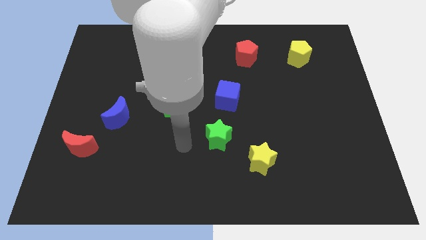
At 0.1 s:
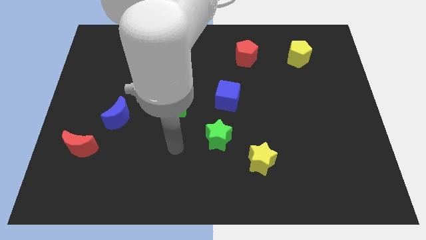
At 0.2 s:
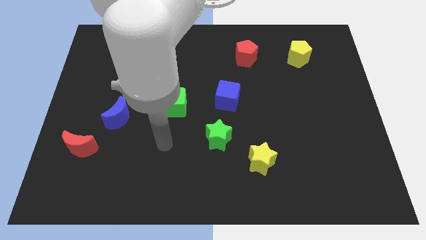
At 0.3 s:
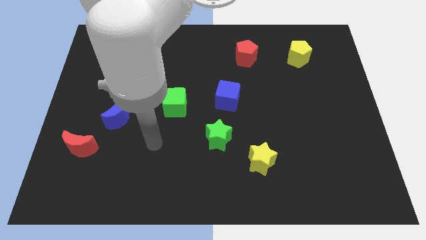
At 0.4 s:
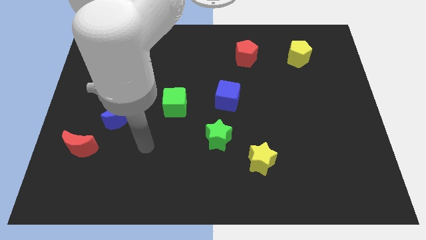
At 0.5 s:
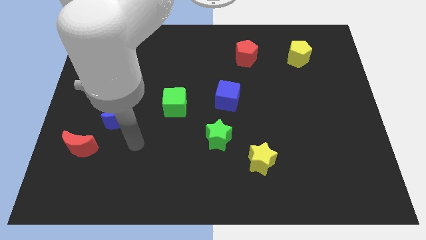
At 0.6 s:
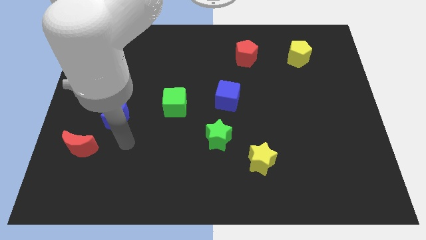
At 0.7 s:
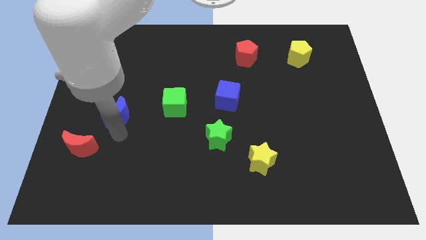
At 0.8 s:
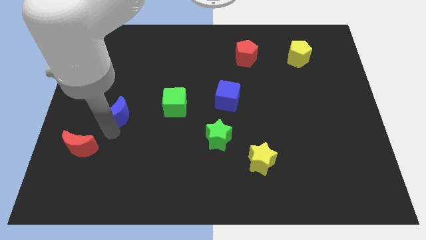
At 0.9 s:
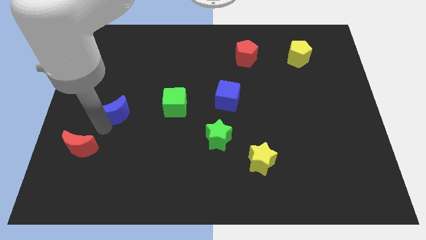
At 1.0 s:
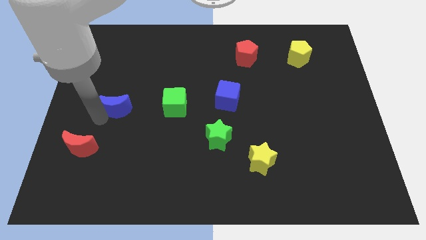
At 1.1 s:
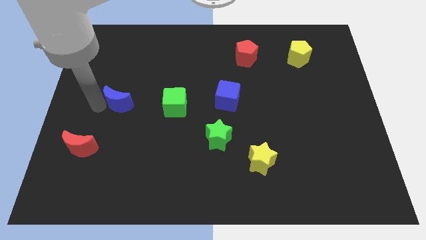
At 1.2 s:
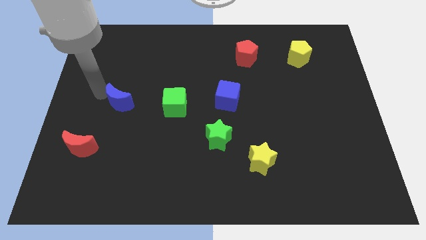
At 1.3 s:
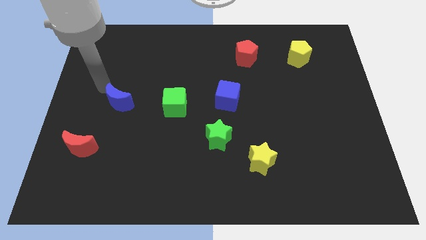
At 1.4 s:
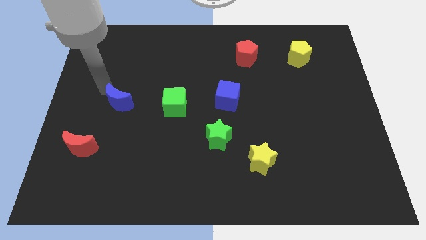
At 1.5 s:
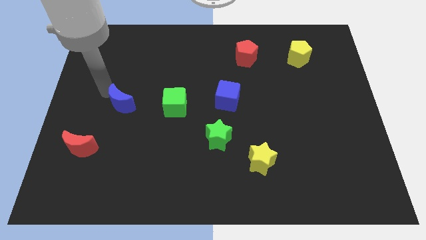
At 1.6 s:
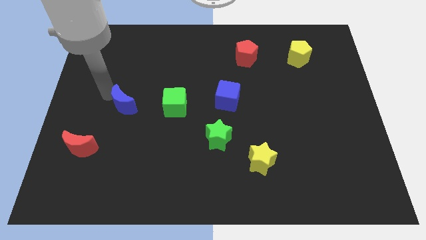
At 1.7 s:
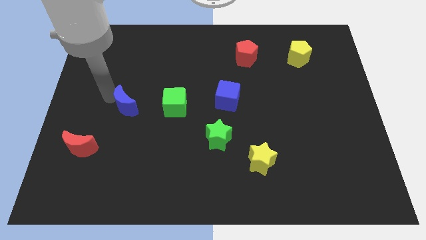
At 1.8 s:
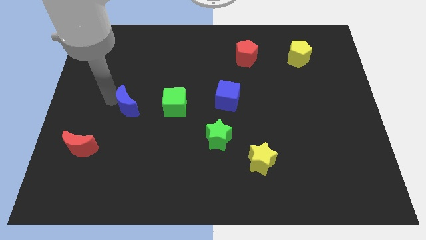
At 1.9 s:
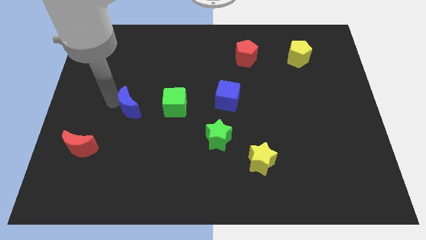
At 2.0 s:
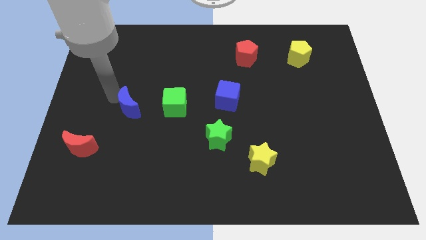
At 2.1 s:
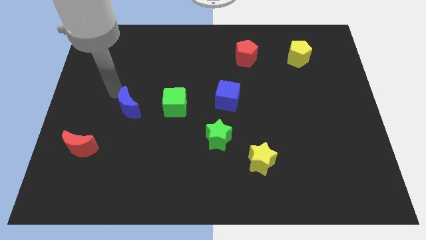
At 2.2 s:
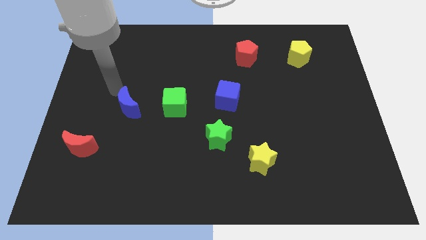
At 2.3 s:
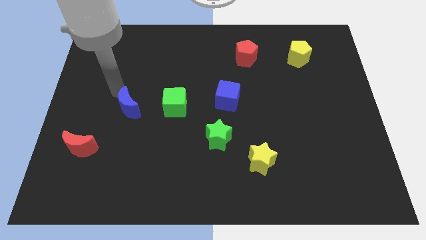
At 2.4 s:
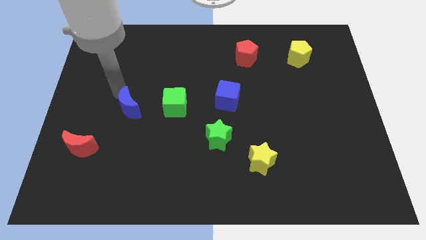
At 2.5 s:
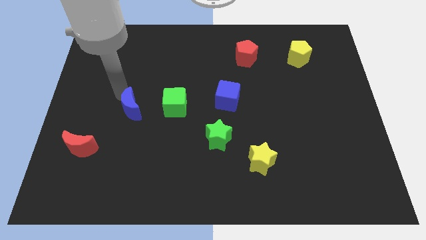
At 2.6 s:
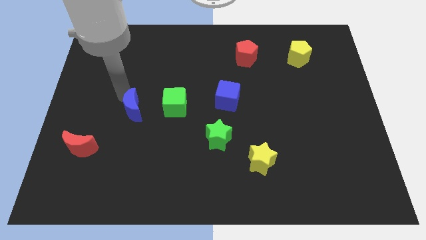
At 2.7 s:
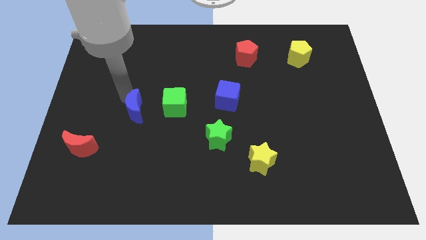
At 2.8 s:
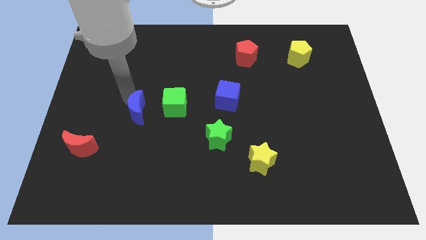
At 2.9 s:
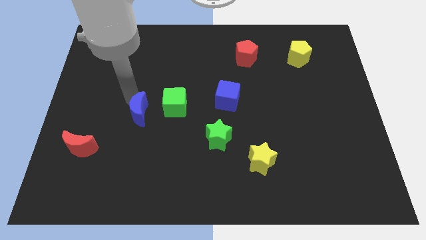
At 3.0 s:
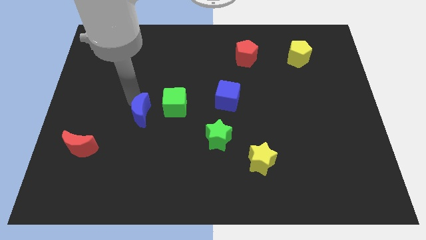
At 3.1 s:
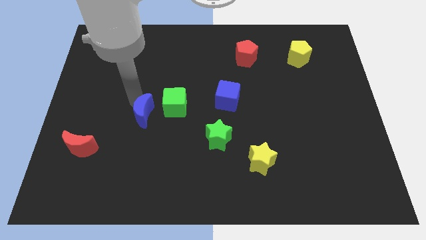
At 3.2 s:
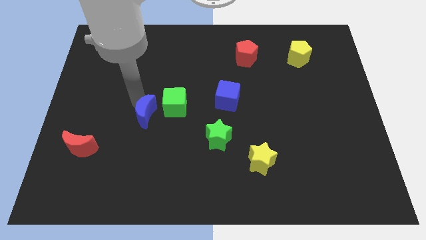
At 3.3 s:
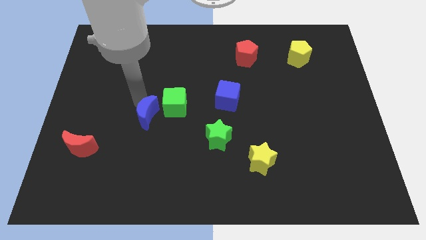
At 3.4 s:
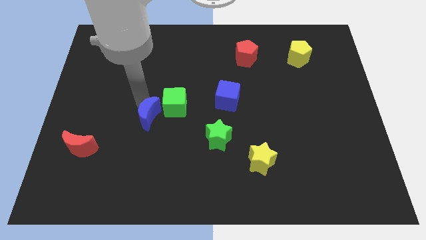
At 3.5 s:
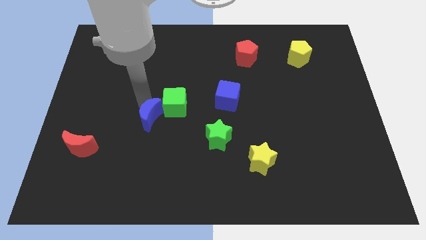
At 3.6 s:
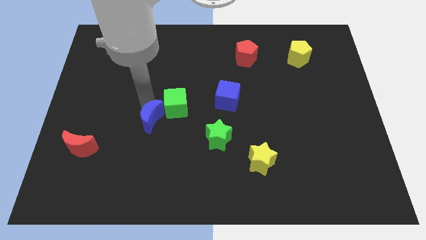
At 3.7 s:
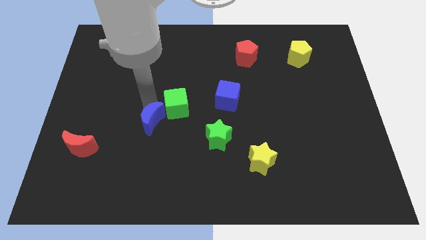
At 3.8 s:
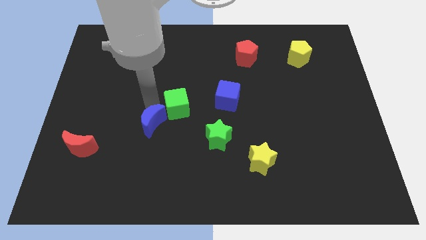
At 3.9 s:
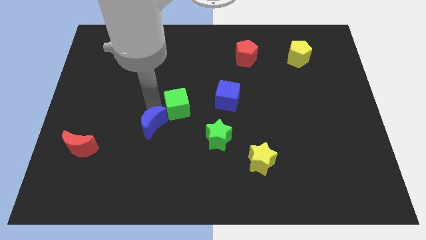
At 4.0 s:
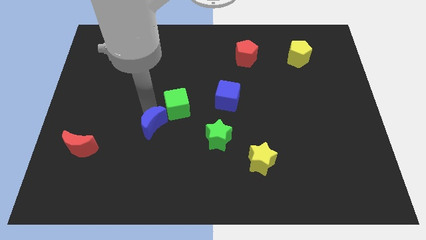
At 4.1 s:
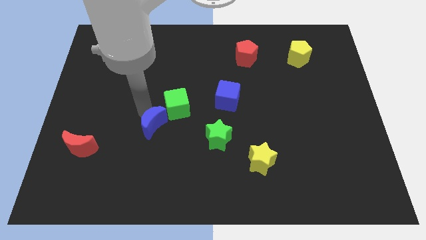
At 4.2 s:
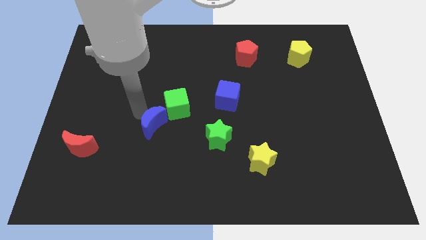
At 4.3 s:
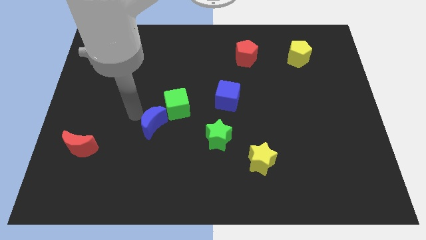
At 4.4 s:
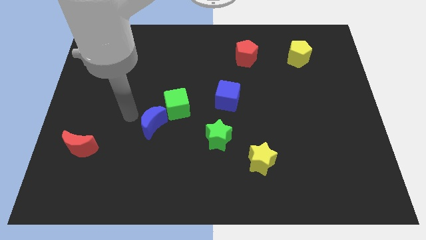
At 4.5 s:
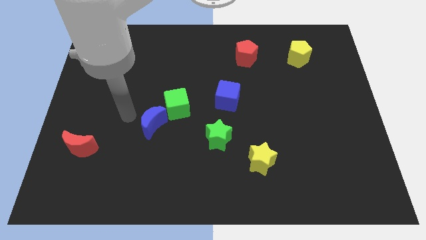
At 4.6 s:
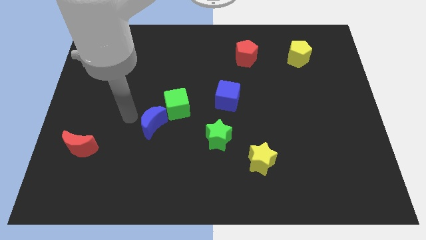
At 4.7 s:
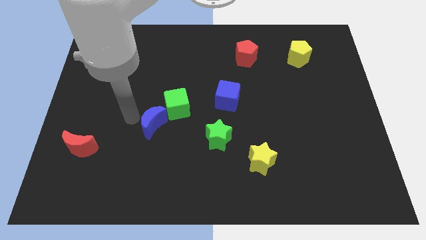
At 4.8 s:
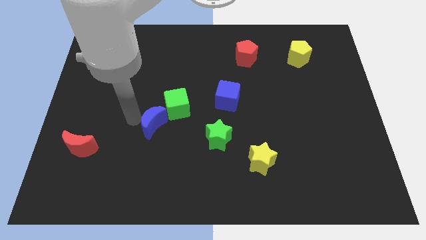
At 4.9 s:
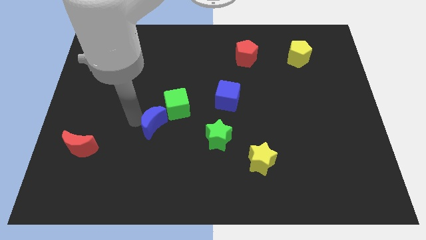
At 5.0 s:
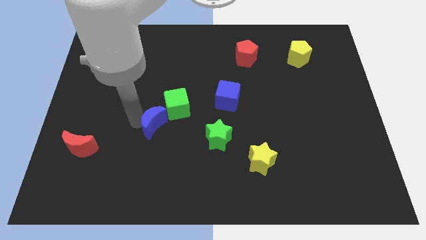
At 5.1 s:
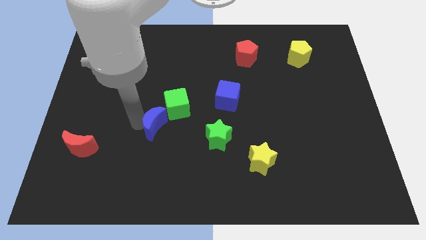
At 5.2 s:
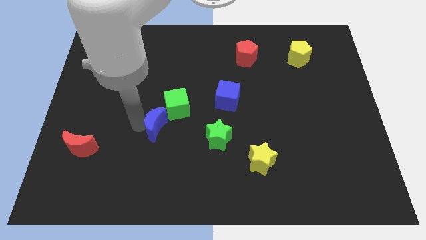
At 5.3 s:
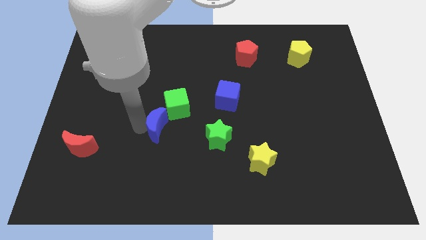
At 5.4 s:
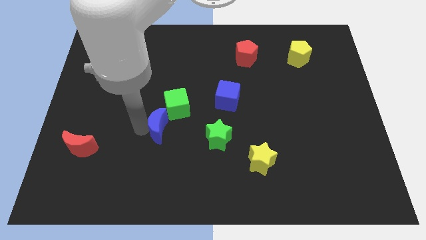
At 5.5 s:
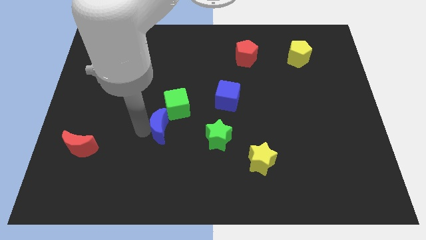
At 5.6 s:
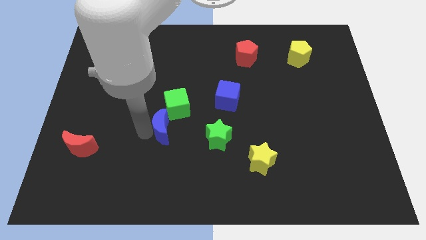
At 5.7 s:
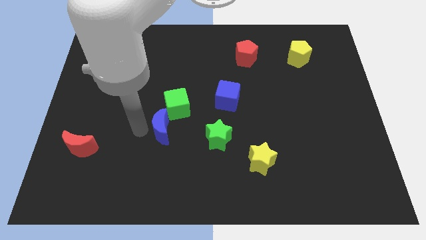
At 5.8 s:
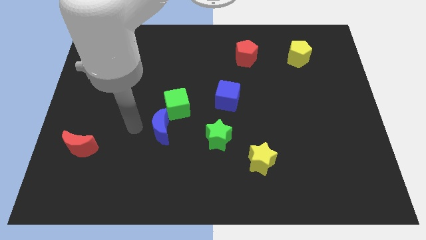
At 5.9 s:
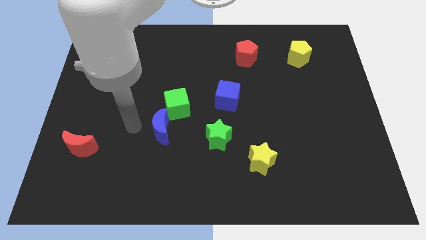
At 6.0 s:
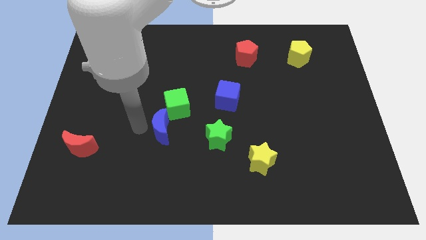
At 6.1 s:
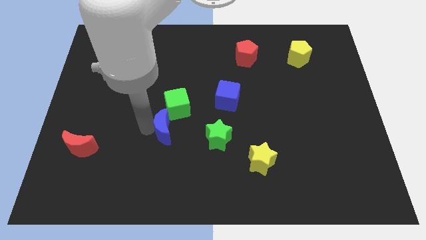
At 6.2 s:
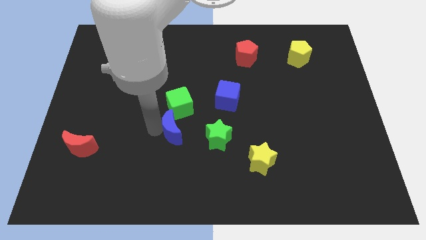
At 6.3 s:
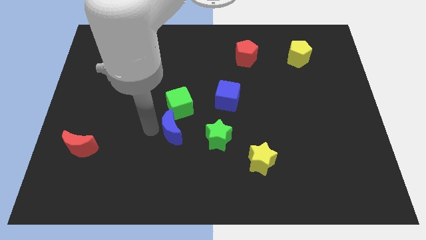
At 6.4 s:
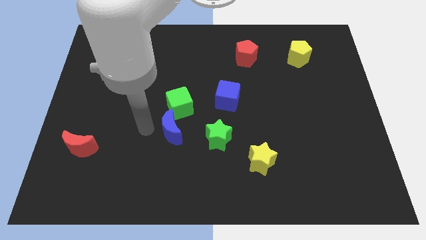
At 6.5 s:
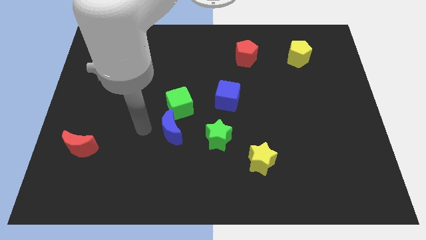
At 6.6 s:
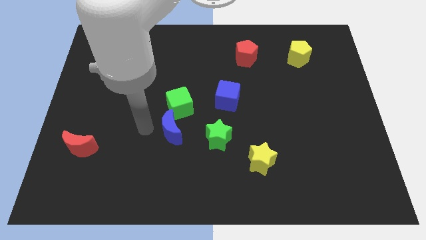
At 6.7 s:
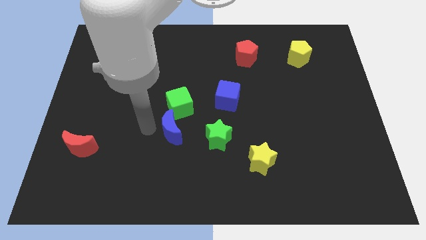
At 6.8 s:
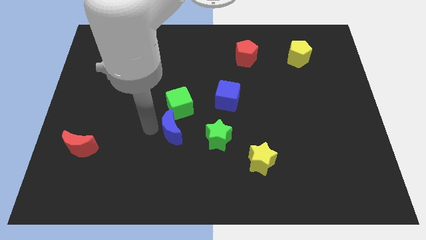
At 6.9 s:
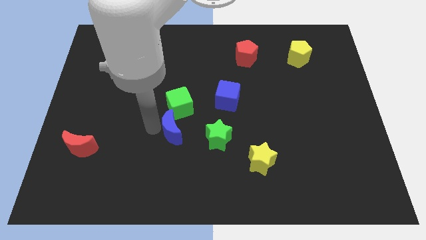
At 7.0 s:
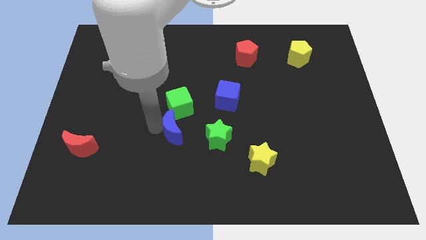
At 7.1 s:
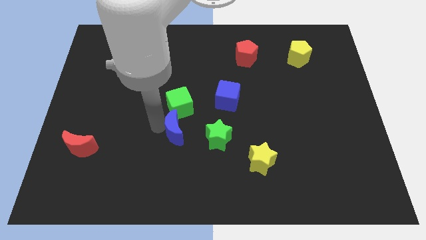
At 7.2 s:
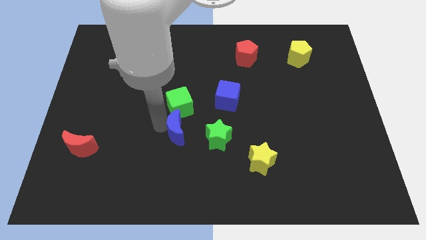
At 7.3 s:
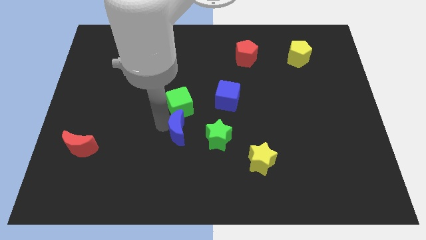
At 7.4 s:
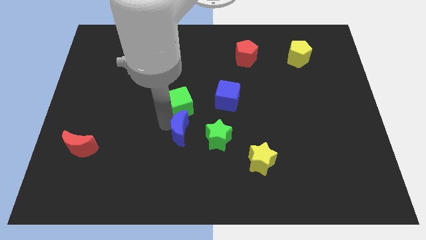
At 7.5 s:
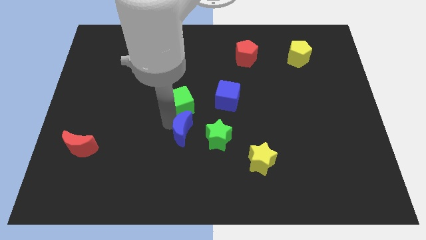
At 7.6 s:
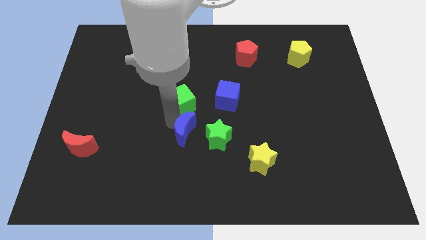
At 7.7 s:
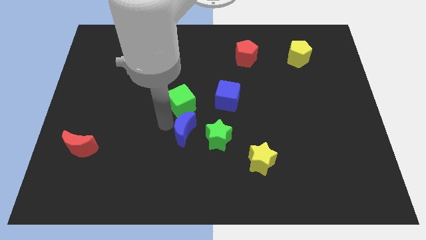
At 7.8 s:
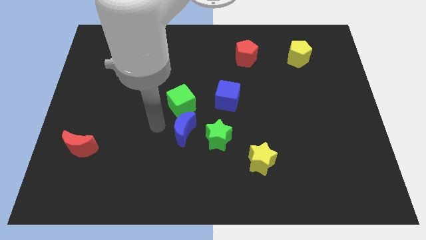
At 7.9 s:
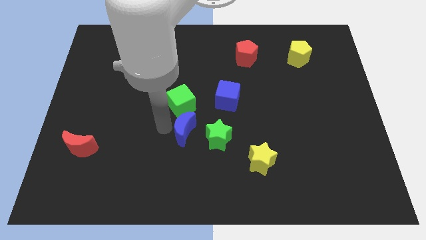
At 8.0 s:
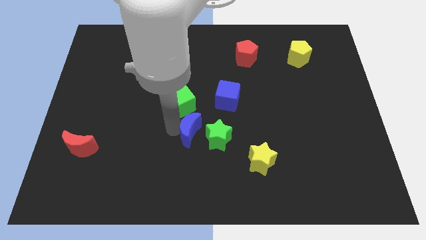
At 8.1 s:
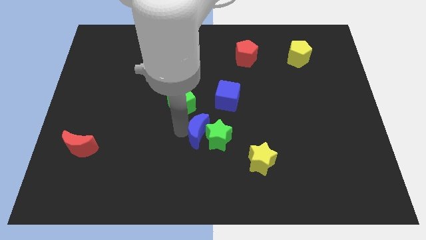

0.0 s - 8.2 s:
slide the blue moon next to the green star
